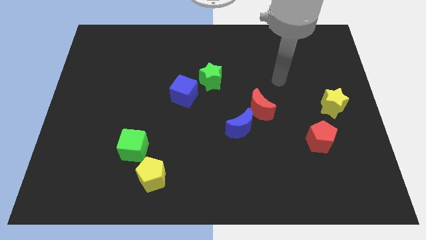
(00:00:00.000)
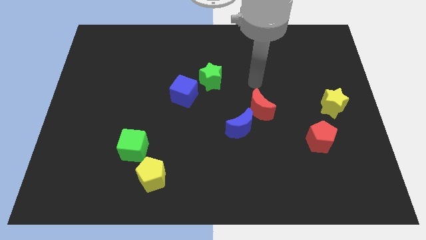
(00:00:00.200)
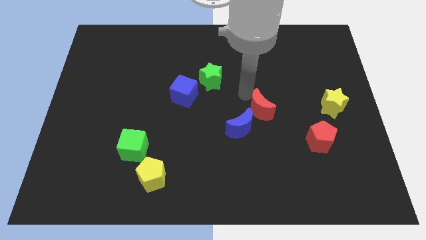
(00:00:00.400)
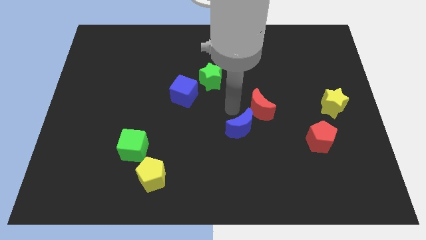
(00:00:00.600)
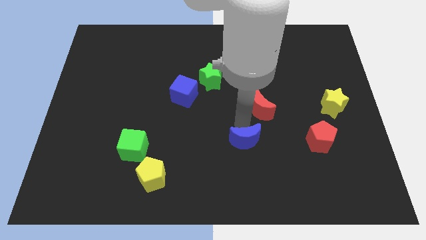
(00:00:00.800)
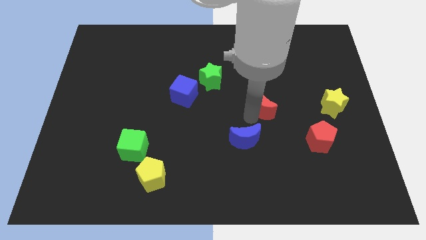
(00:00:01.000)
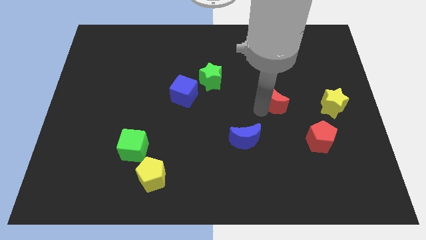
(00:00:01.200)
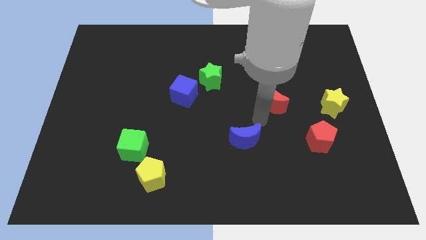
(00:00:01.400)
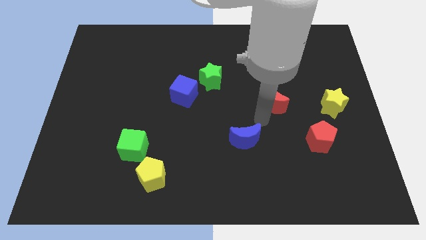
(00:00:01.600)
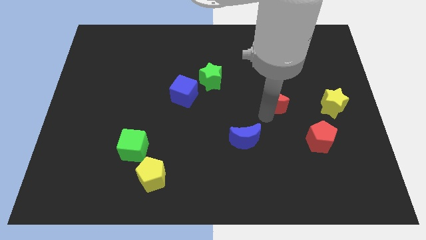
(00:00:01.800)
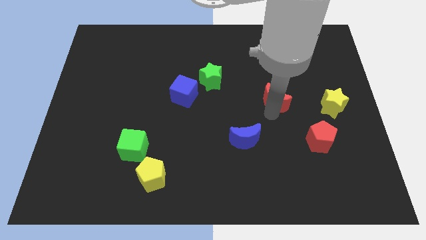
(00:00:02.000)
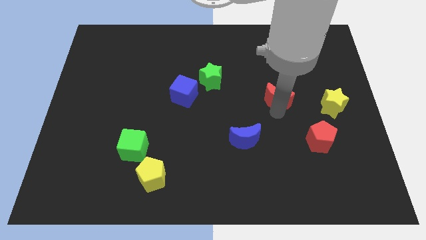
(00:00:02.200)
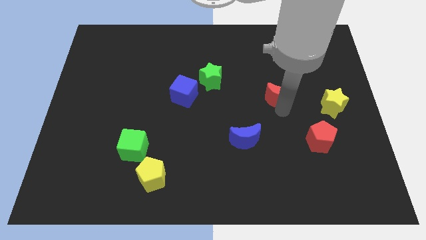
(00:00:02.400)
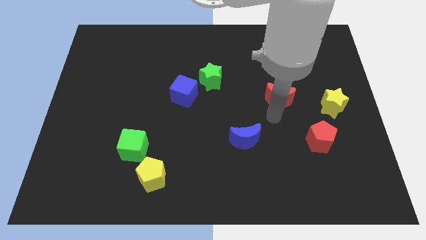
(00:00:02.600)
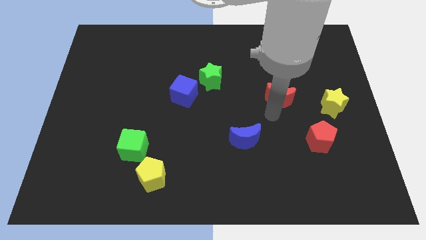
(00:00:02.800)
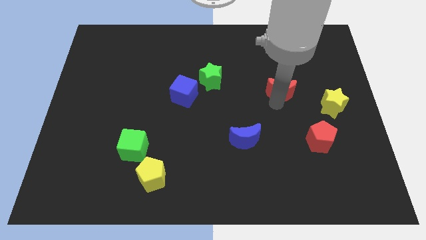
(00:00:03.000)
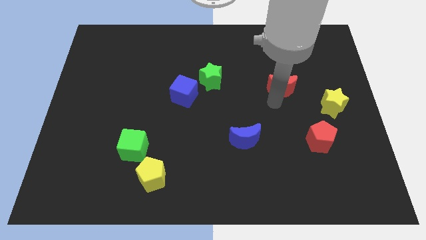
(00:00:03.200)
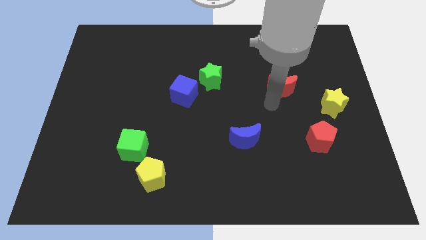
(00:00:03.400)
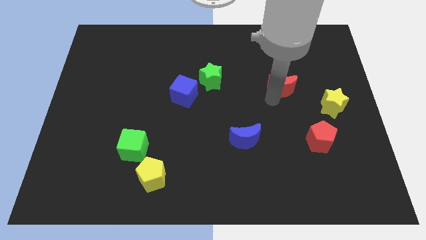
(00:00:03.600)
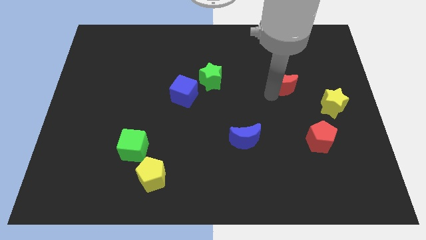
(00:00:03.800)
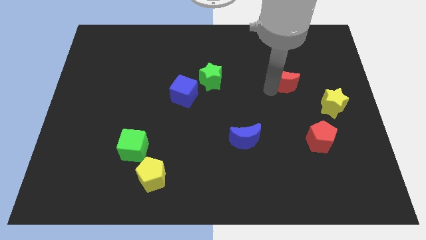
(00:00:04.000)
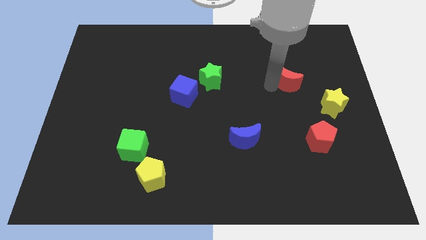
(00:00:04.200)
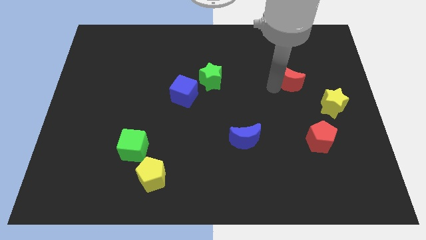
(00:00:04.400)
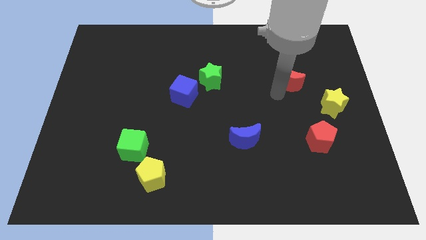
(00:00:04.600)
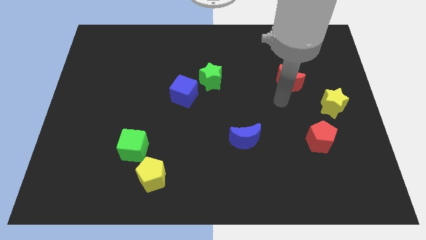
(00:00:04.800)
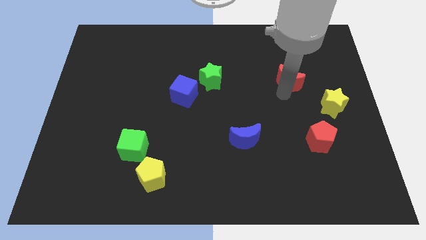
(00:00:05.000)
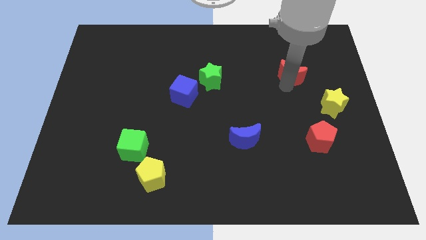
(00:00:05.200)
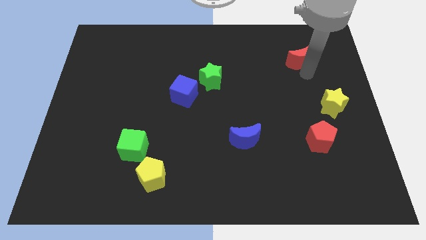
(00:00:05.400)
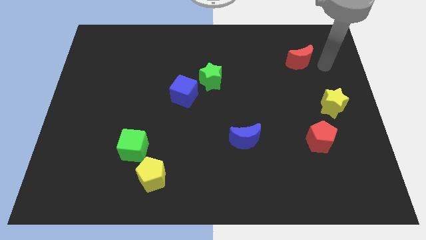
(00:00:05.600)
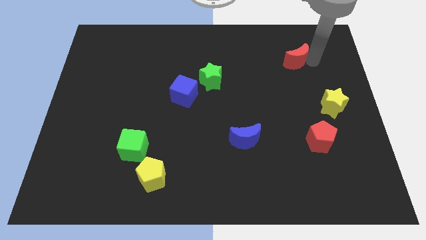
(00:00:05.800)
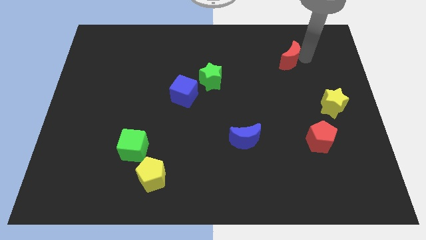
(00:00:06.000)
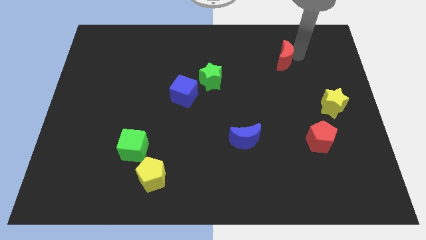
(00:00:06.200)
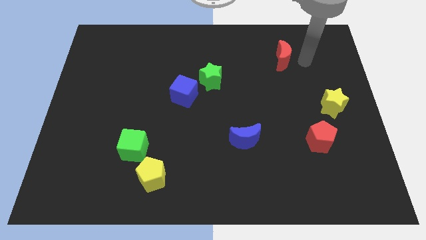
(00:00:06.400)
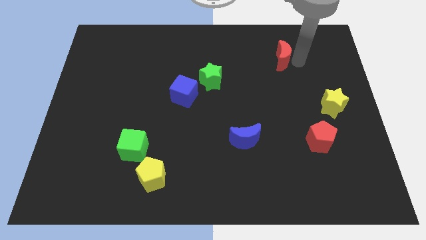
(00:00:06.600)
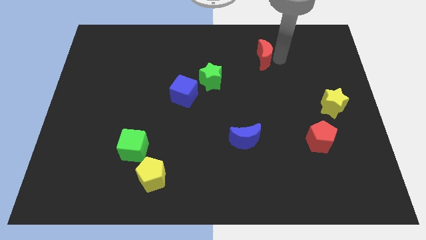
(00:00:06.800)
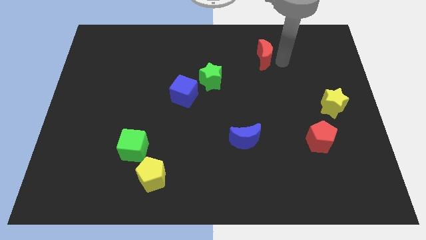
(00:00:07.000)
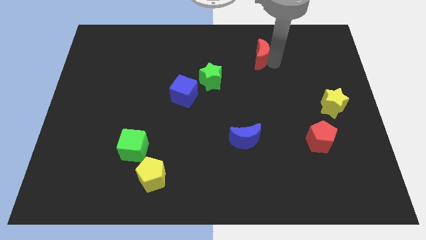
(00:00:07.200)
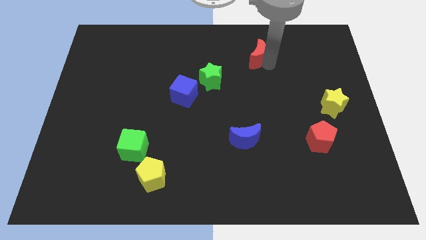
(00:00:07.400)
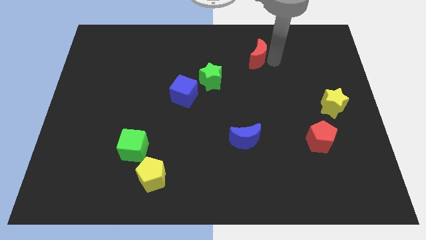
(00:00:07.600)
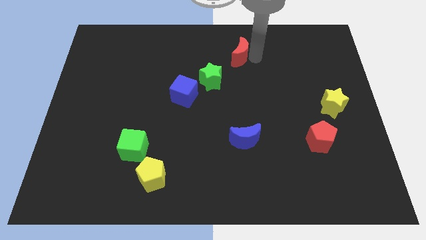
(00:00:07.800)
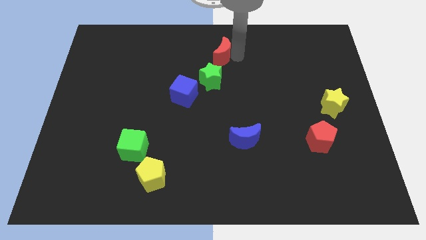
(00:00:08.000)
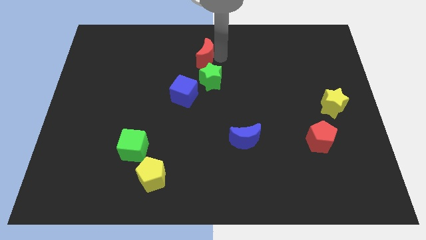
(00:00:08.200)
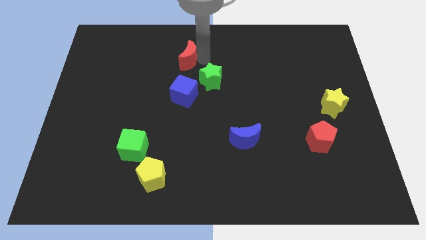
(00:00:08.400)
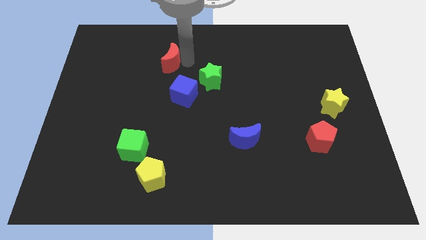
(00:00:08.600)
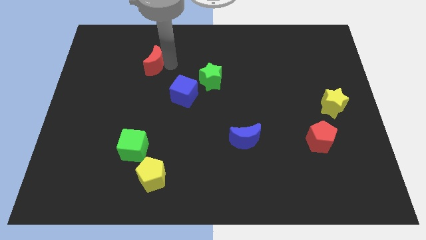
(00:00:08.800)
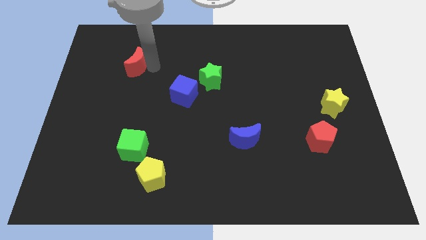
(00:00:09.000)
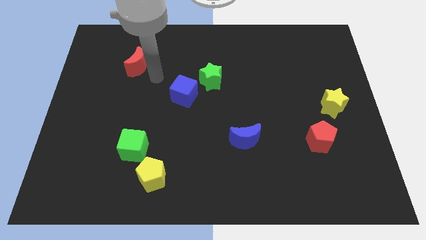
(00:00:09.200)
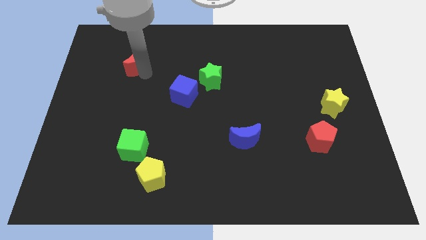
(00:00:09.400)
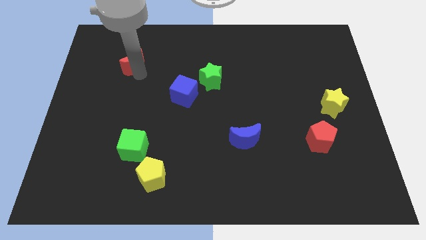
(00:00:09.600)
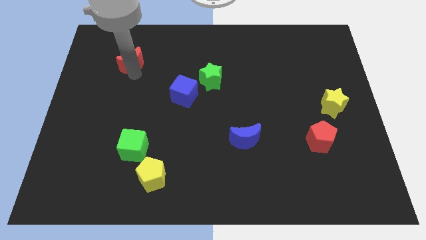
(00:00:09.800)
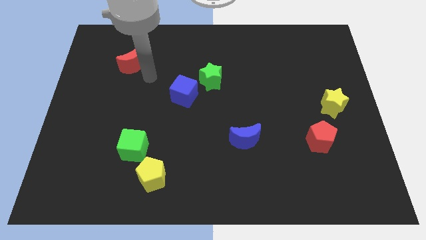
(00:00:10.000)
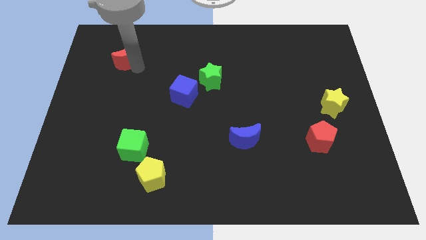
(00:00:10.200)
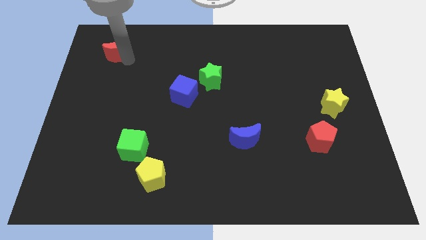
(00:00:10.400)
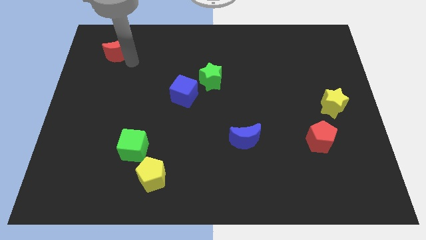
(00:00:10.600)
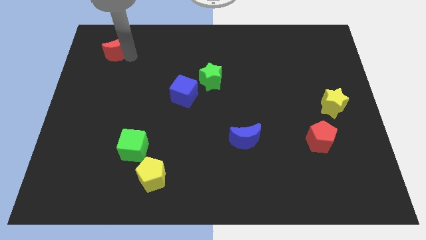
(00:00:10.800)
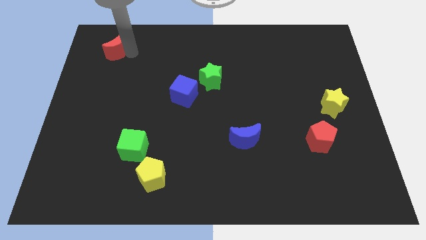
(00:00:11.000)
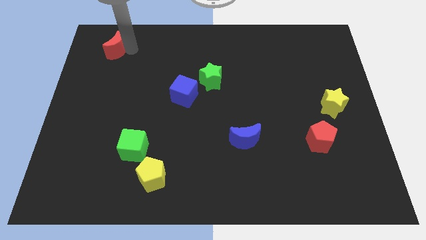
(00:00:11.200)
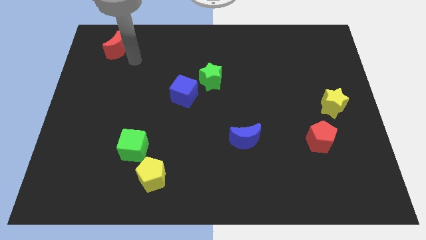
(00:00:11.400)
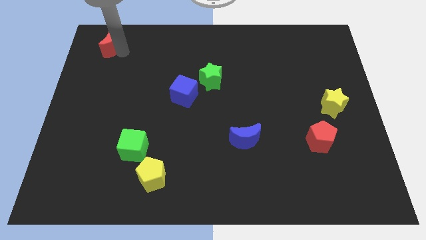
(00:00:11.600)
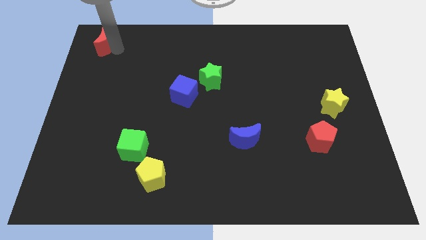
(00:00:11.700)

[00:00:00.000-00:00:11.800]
move the red moon to the top left corner

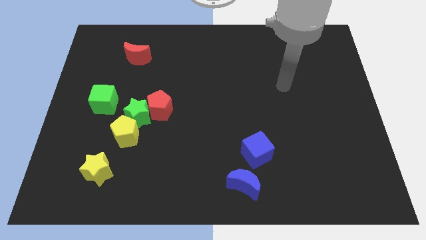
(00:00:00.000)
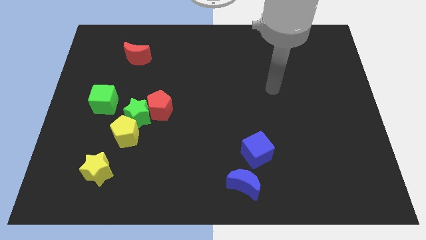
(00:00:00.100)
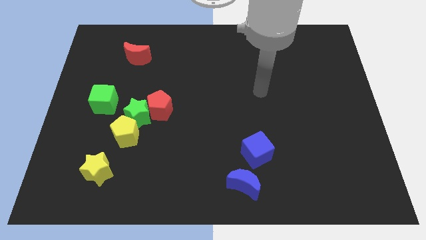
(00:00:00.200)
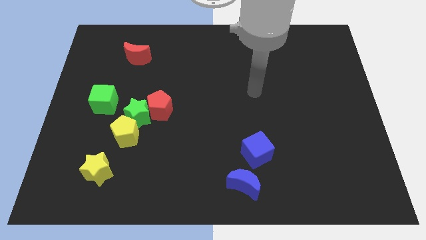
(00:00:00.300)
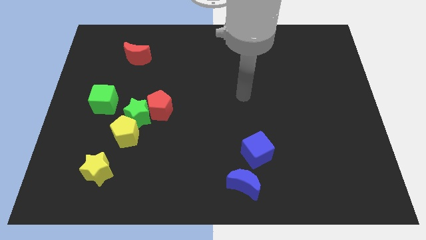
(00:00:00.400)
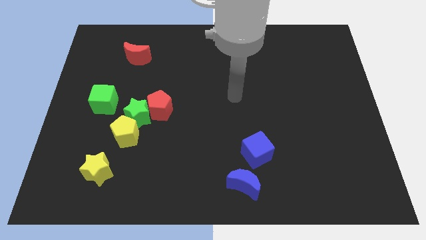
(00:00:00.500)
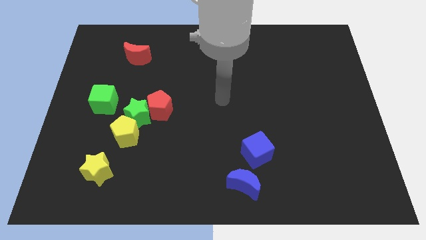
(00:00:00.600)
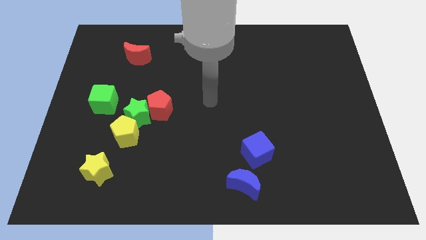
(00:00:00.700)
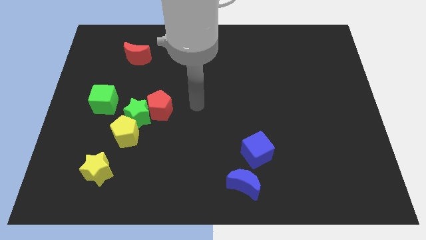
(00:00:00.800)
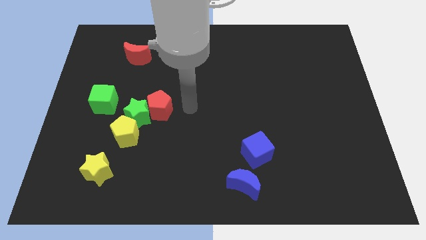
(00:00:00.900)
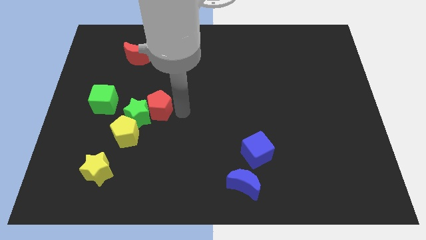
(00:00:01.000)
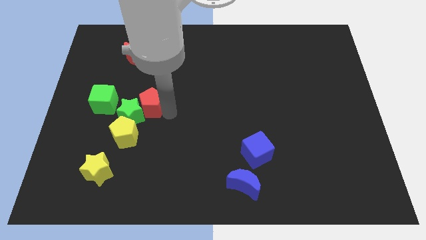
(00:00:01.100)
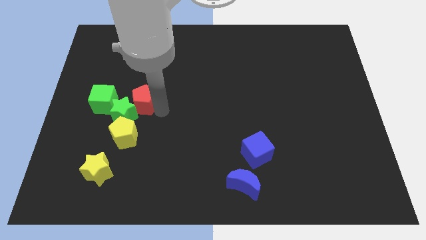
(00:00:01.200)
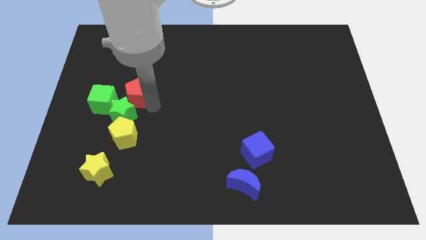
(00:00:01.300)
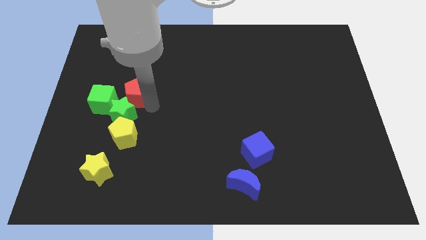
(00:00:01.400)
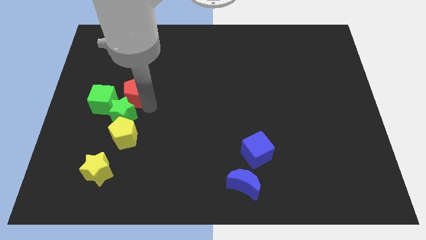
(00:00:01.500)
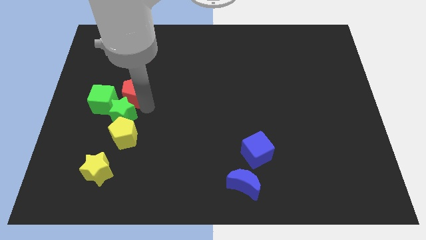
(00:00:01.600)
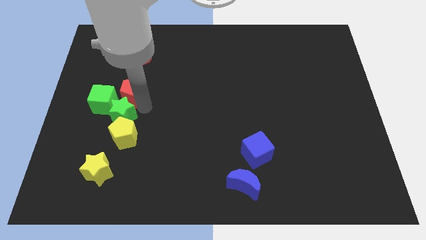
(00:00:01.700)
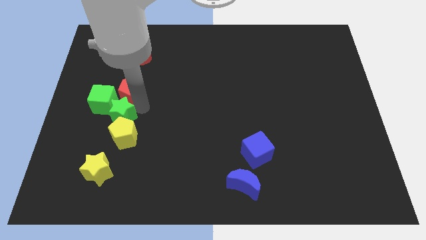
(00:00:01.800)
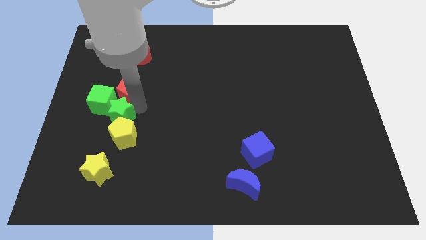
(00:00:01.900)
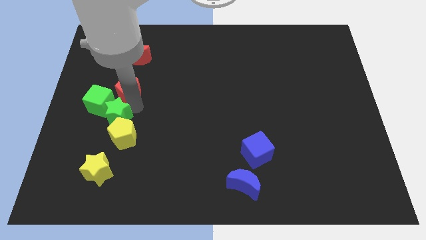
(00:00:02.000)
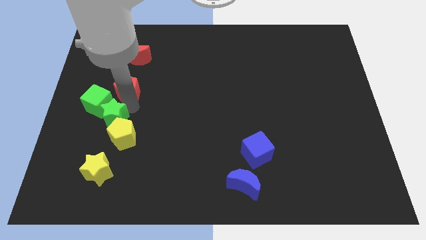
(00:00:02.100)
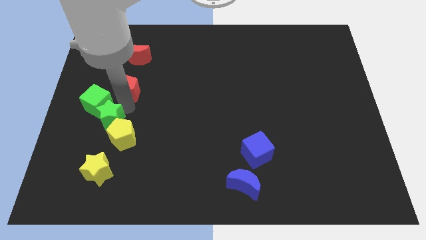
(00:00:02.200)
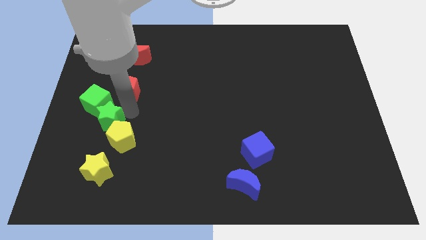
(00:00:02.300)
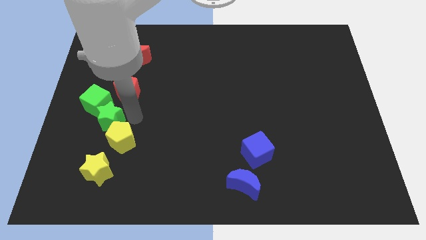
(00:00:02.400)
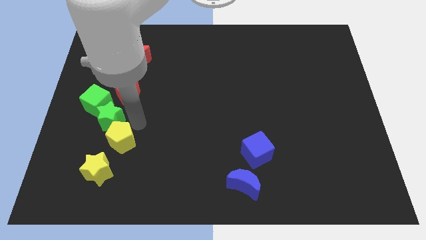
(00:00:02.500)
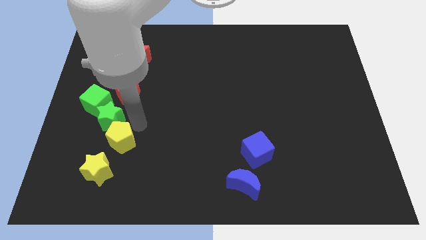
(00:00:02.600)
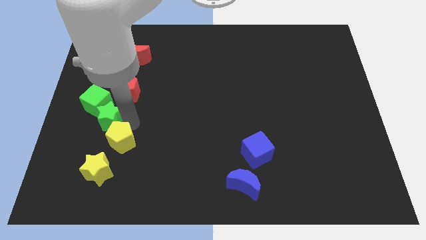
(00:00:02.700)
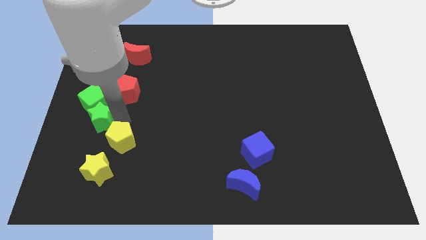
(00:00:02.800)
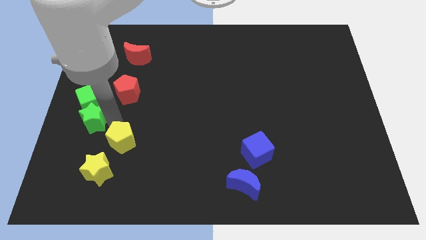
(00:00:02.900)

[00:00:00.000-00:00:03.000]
put the green star to the left side
